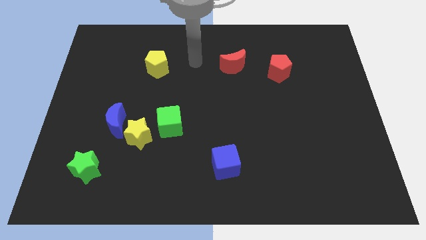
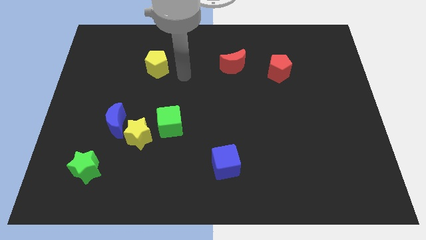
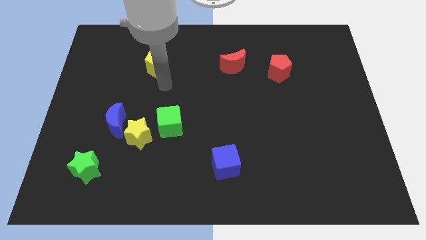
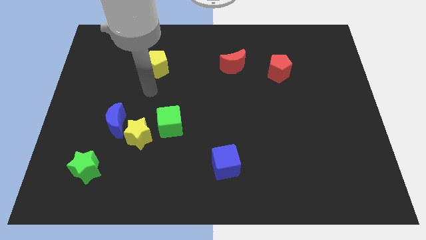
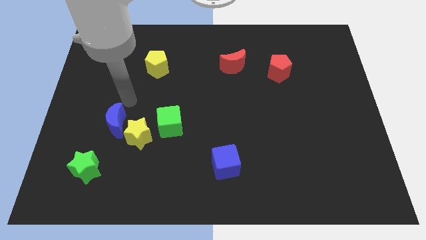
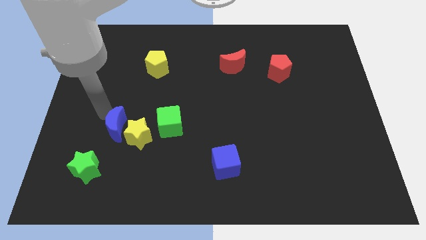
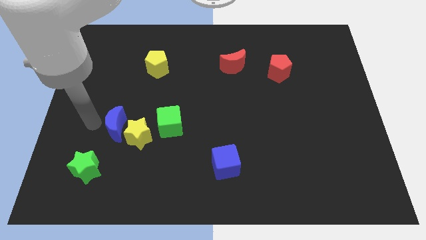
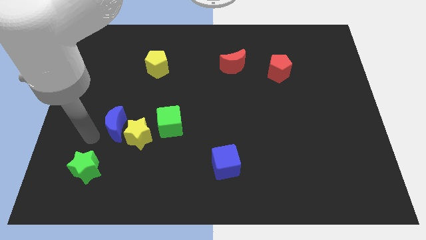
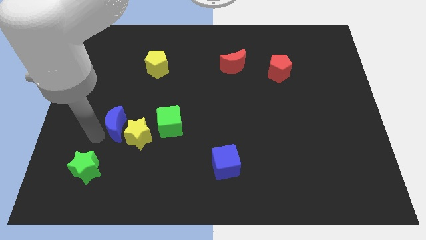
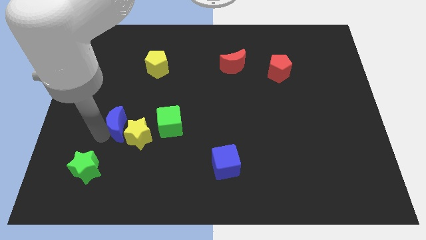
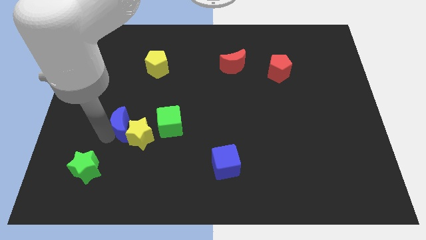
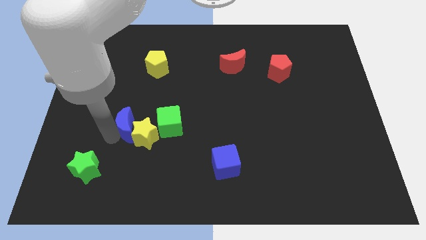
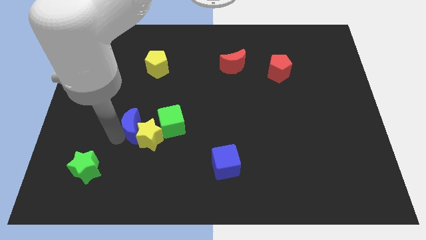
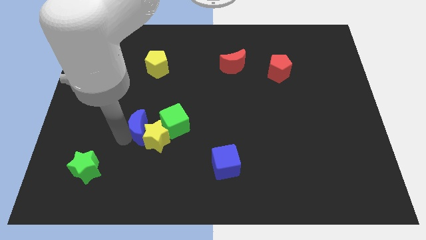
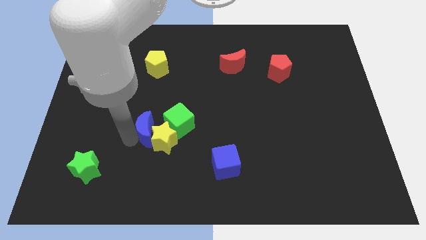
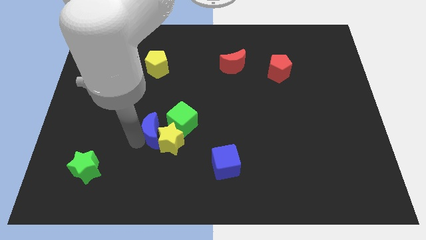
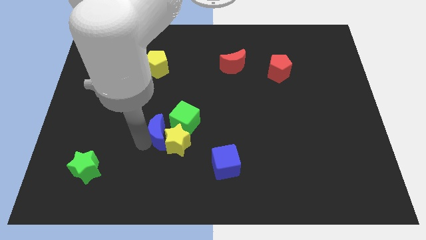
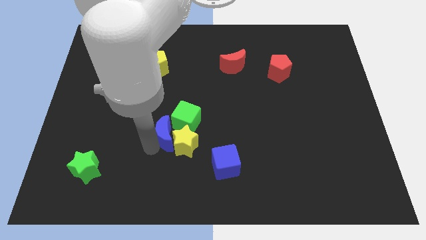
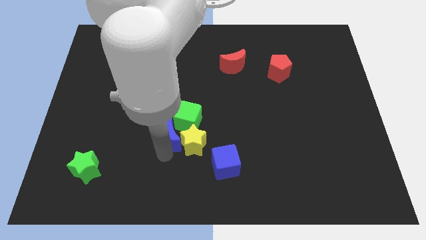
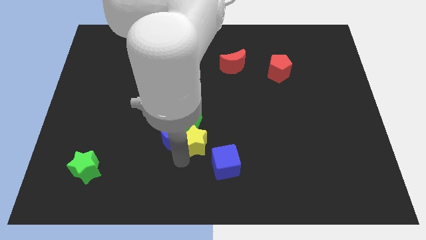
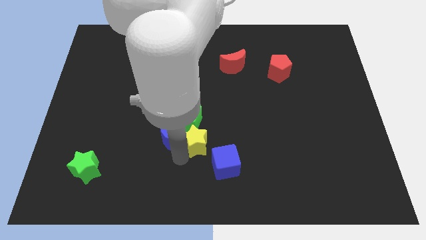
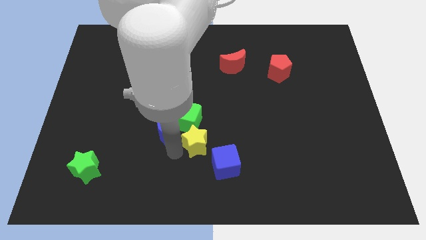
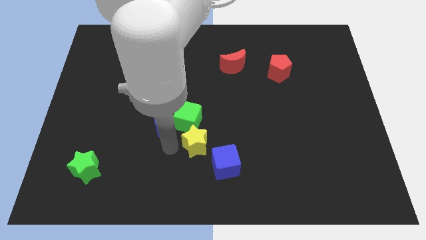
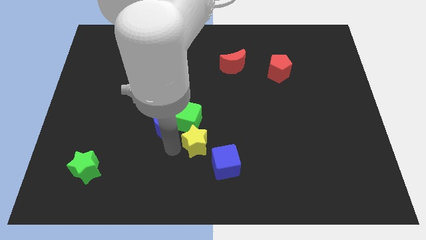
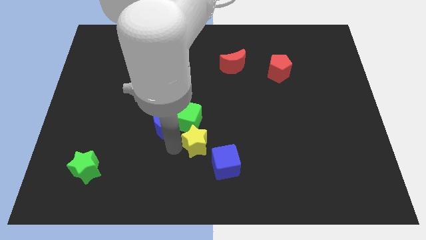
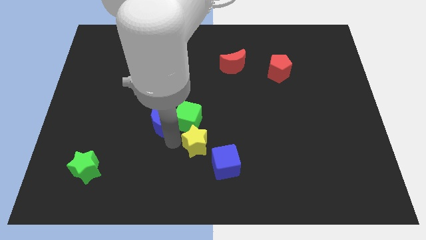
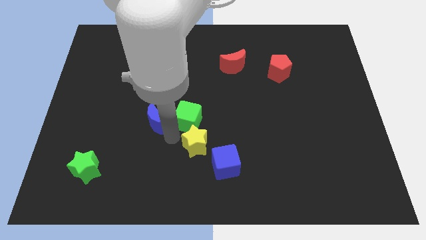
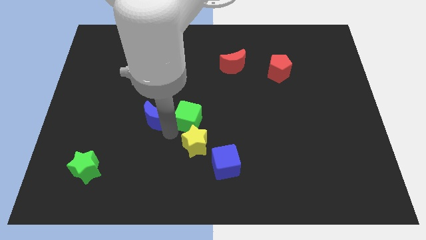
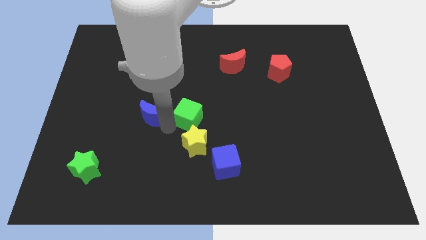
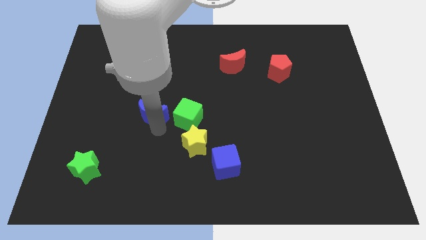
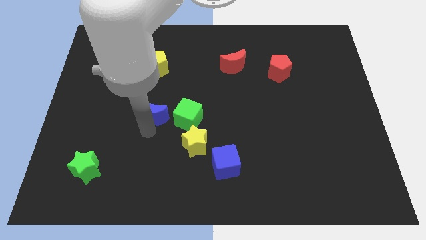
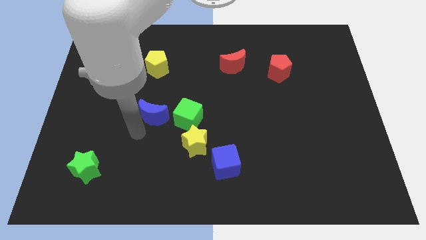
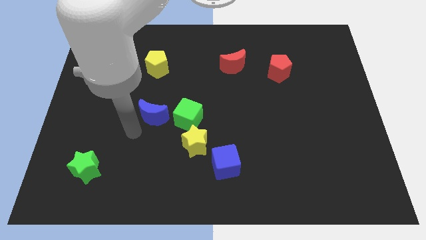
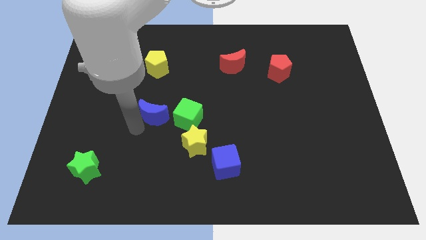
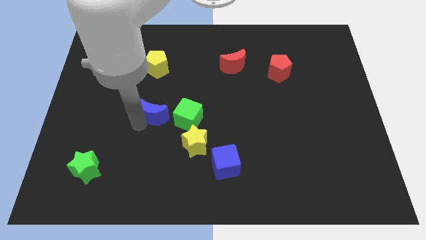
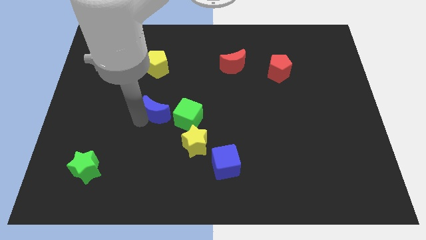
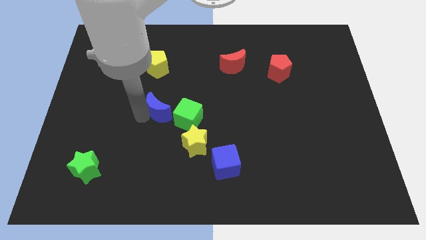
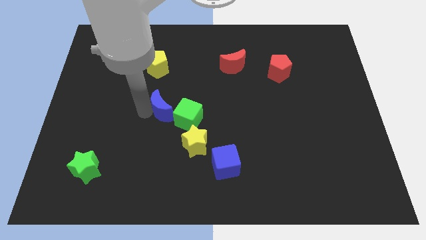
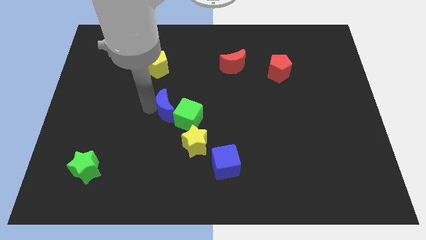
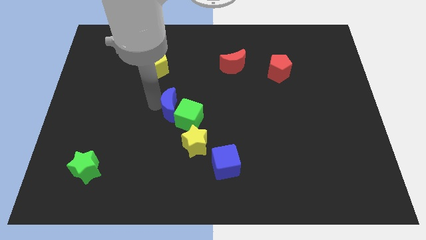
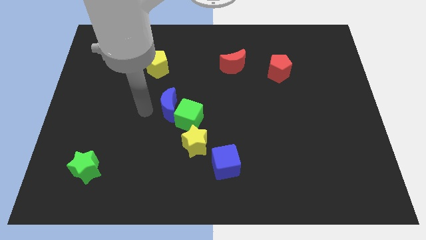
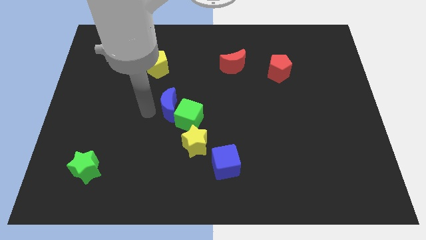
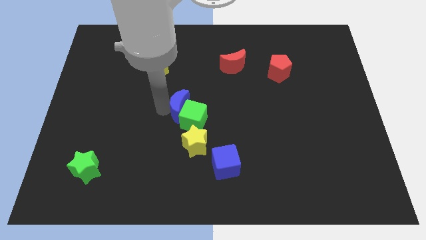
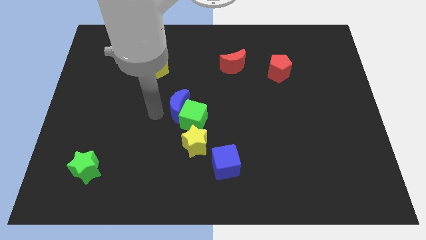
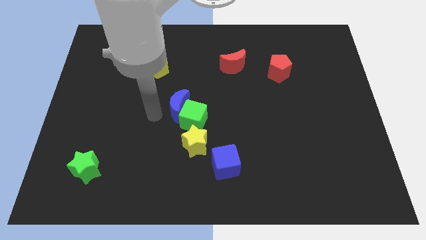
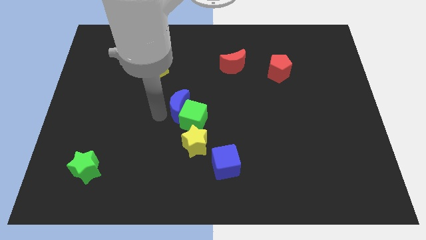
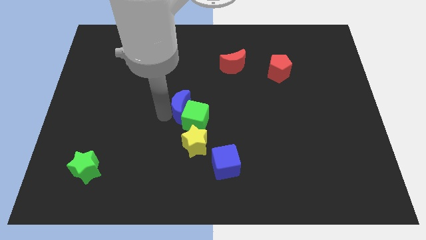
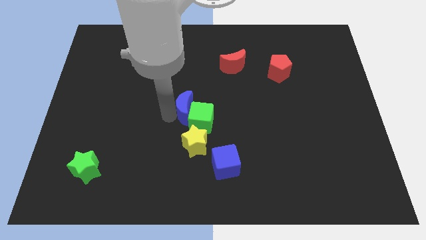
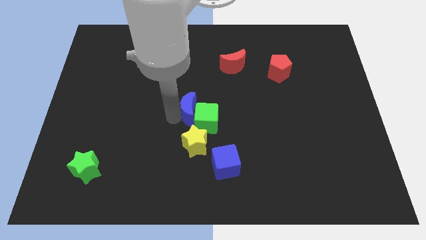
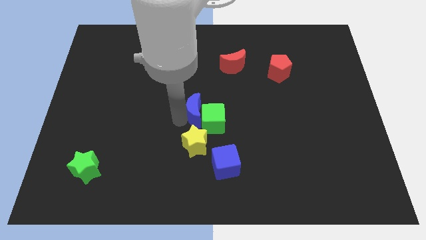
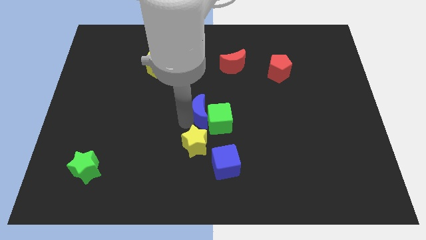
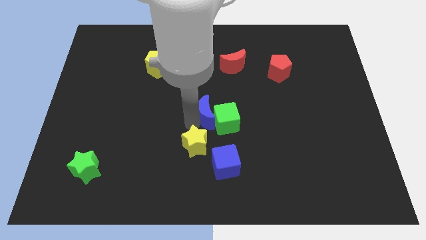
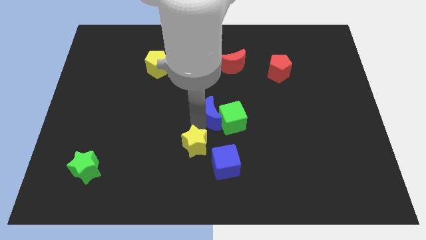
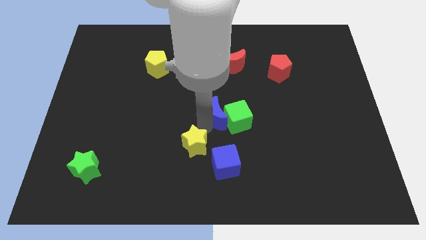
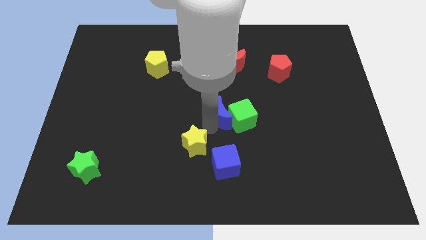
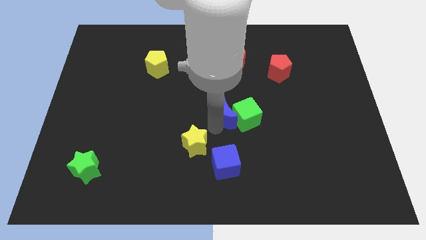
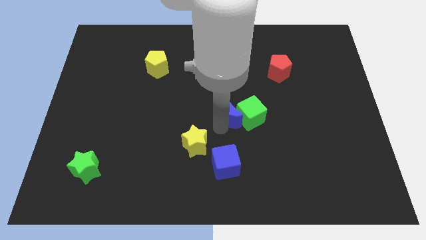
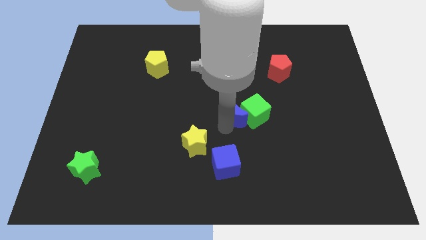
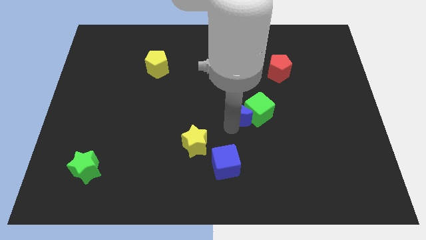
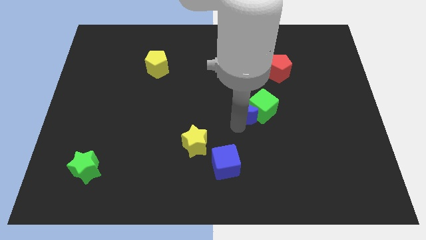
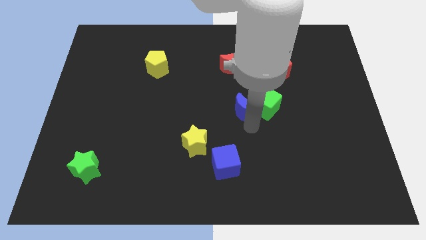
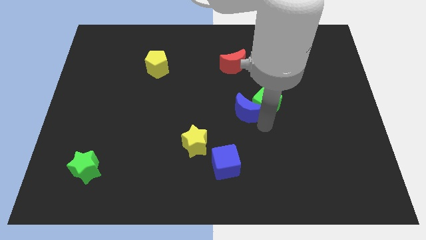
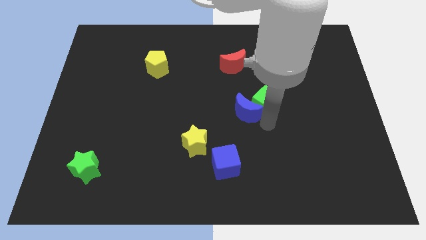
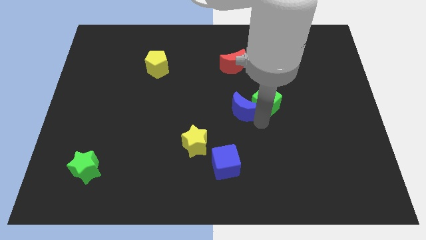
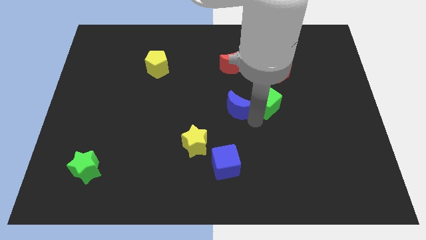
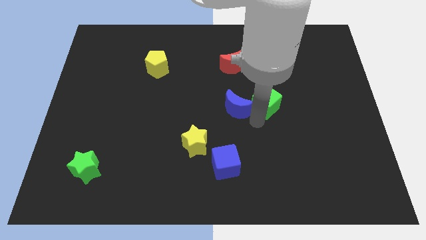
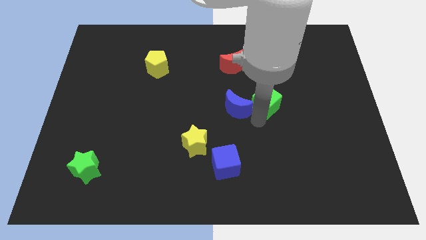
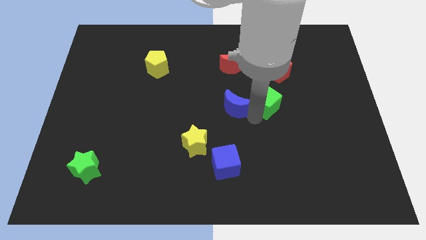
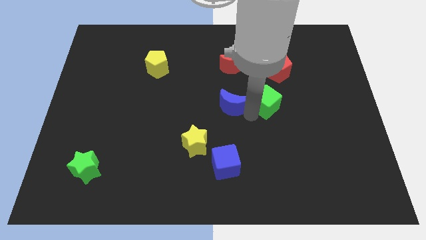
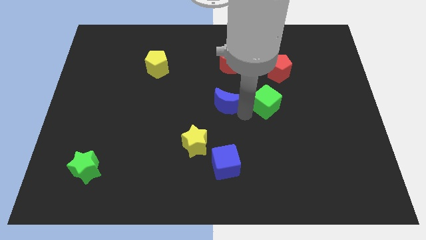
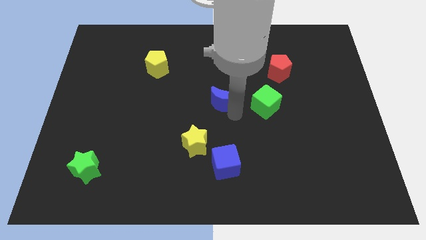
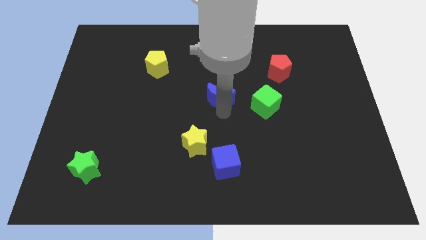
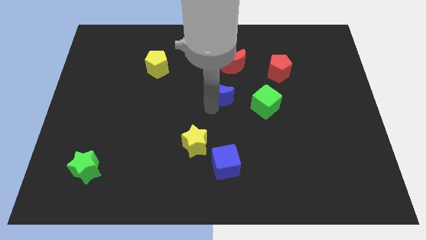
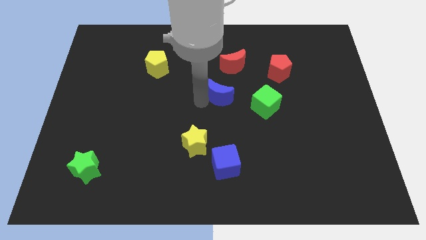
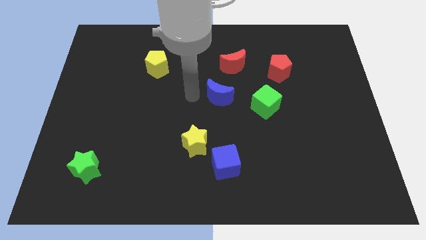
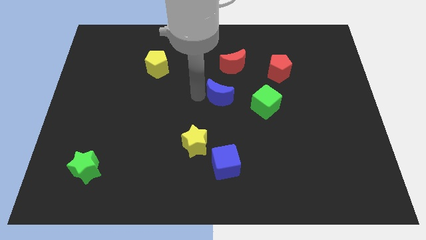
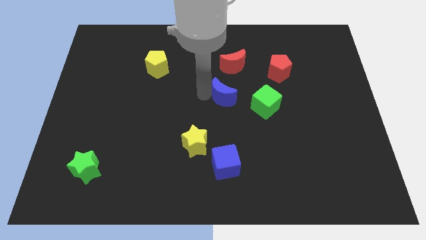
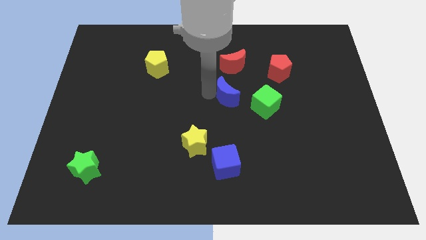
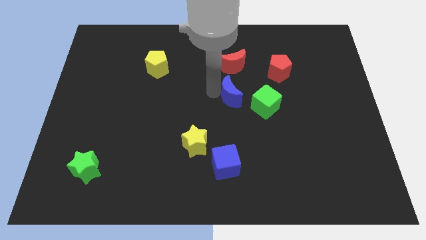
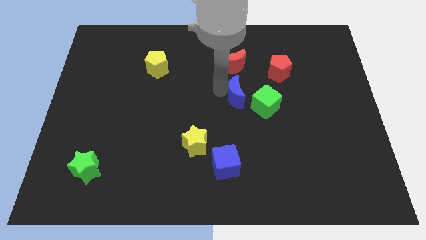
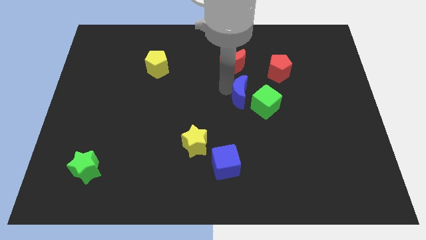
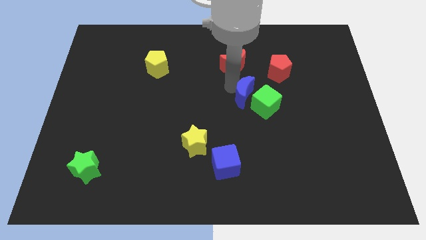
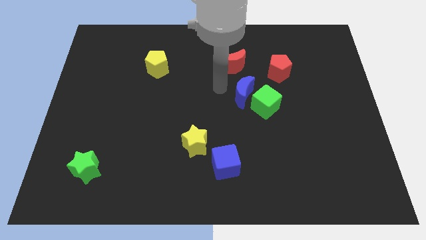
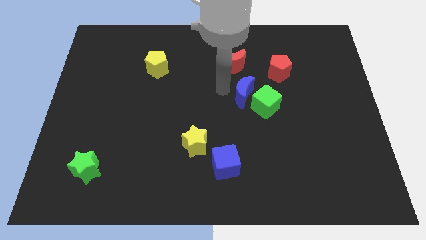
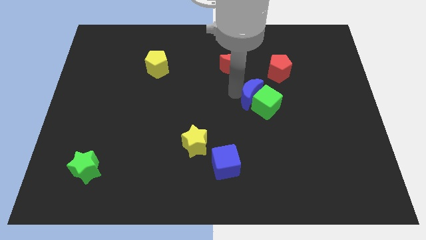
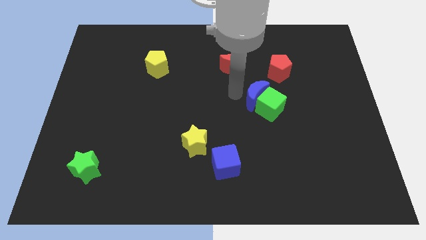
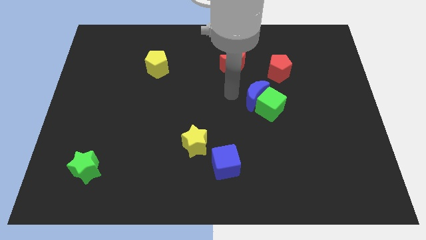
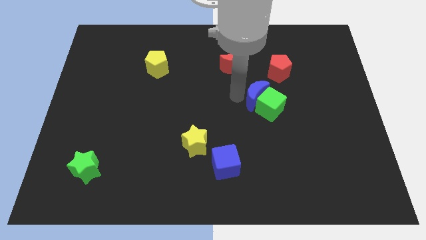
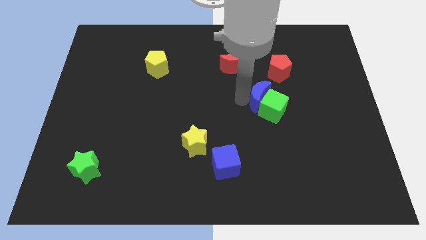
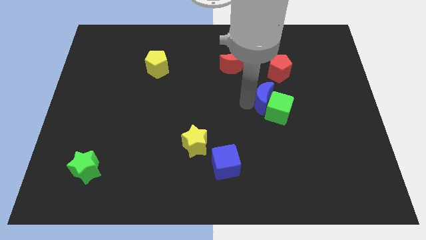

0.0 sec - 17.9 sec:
move the blue moon below the red pentagon
